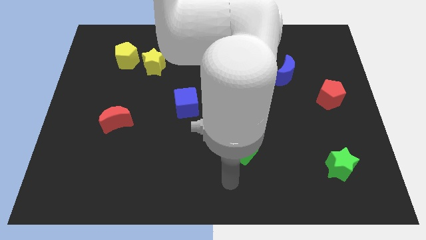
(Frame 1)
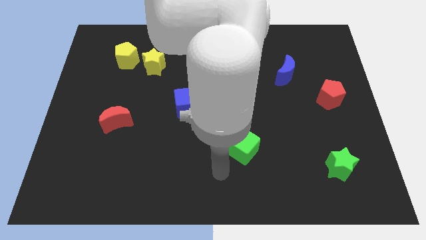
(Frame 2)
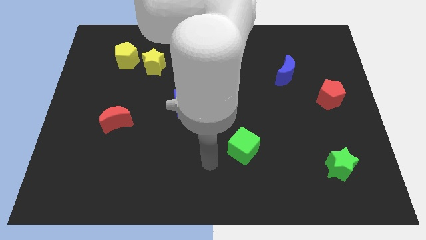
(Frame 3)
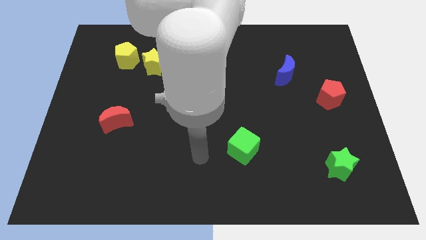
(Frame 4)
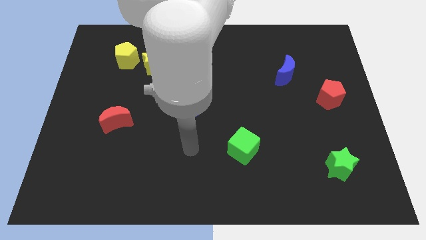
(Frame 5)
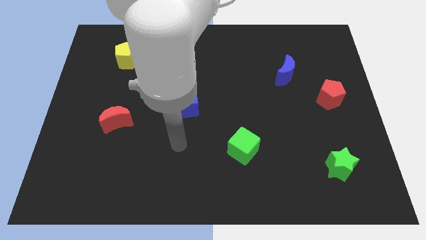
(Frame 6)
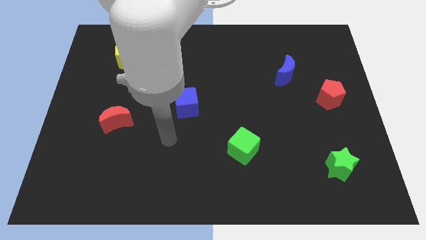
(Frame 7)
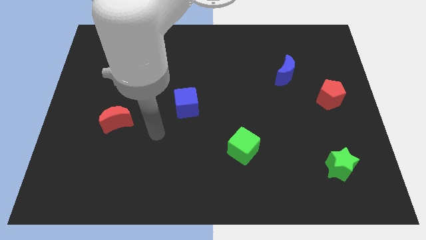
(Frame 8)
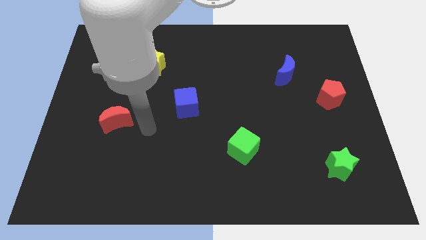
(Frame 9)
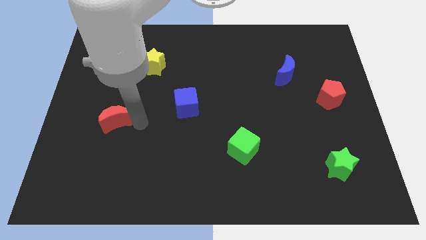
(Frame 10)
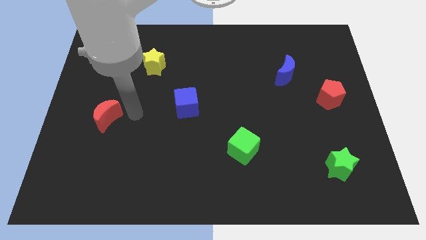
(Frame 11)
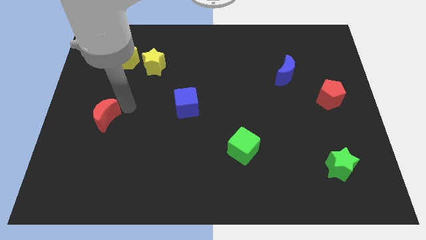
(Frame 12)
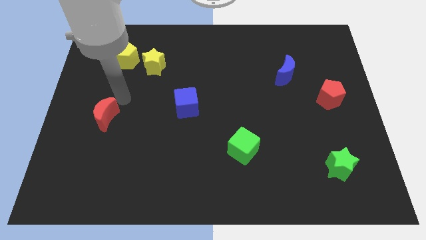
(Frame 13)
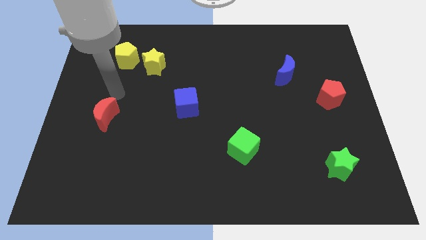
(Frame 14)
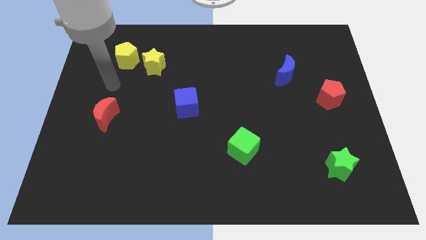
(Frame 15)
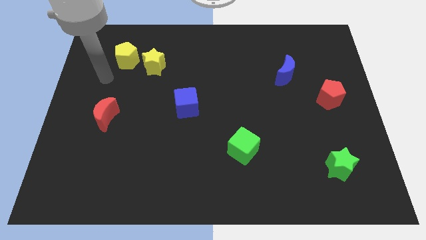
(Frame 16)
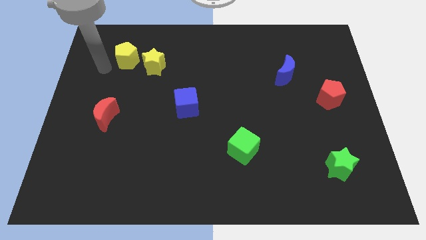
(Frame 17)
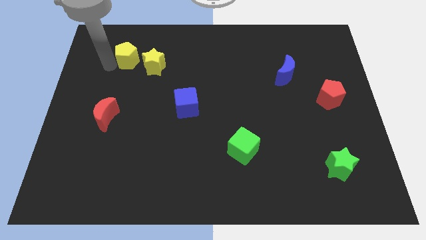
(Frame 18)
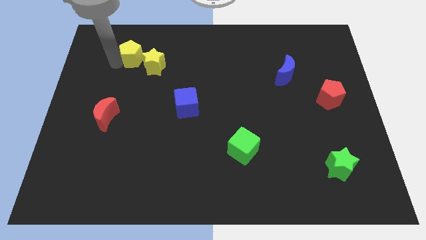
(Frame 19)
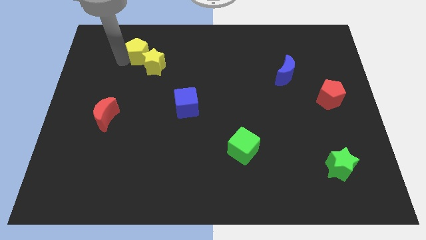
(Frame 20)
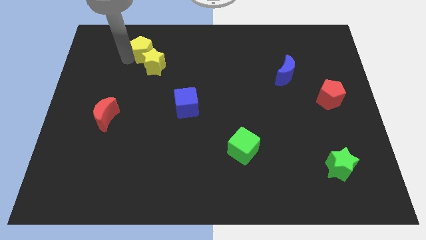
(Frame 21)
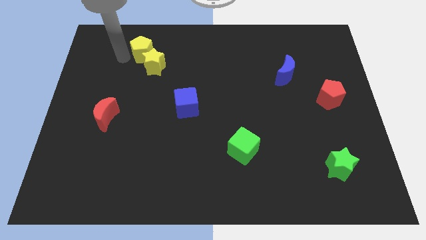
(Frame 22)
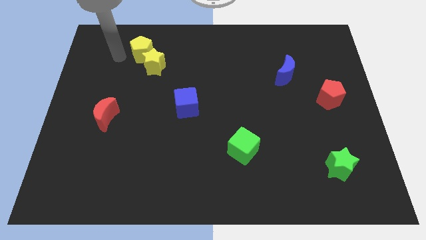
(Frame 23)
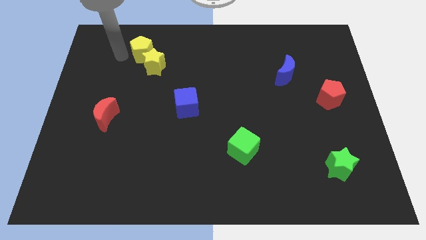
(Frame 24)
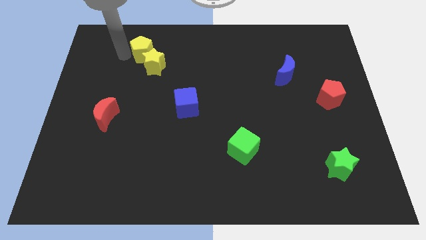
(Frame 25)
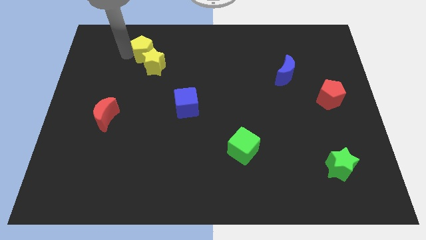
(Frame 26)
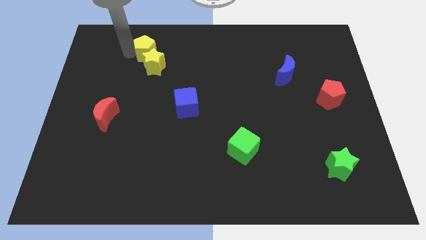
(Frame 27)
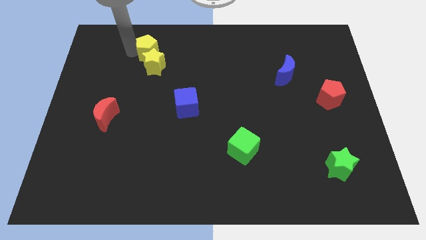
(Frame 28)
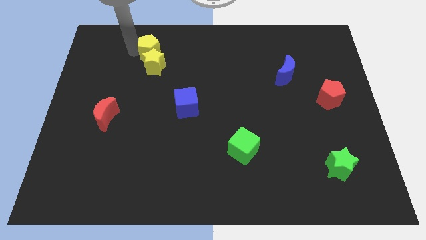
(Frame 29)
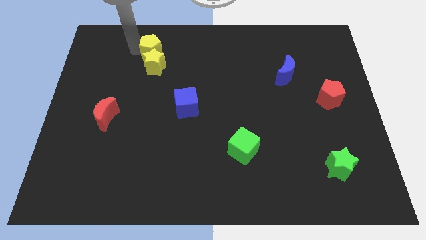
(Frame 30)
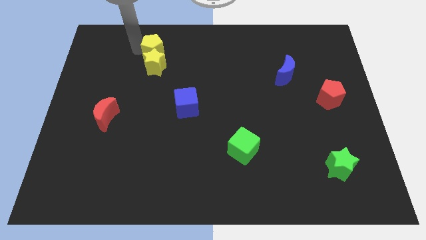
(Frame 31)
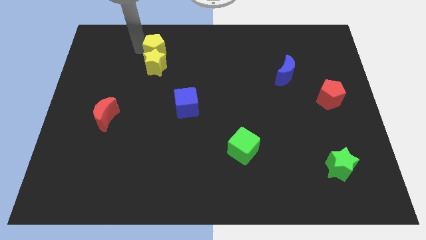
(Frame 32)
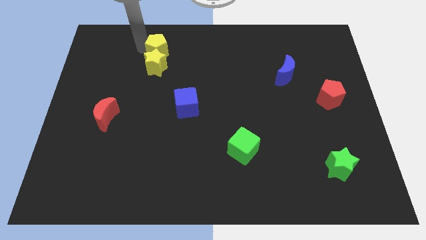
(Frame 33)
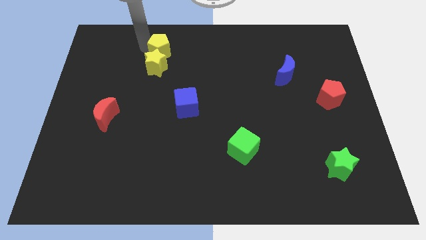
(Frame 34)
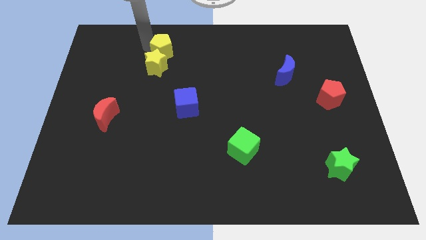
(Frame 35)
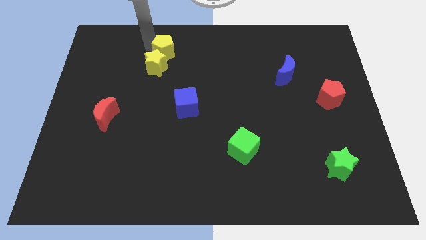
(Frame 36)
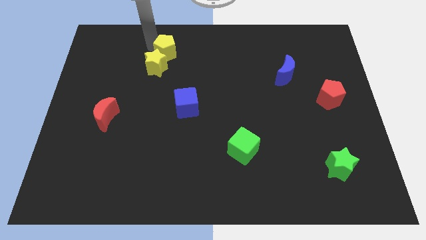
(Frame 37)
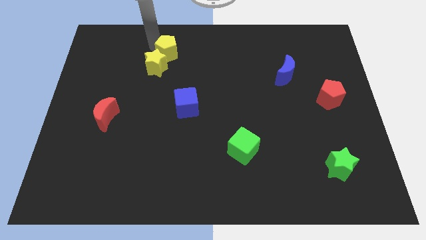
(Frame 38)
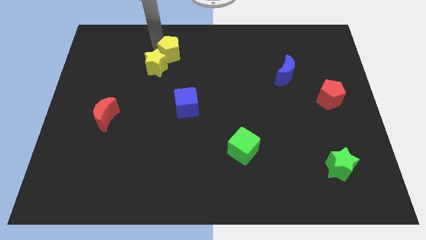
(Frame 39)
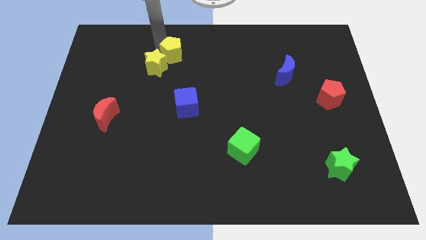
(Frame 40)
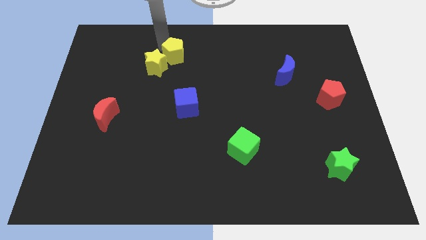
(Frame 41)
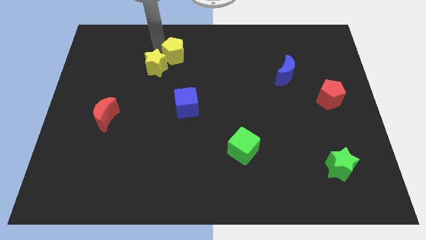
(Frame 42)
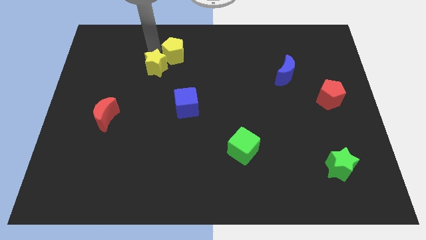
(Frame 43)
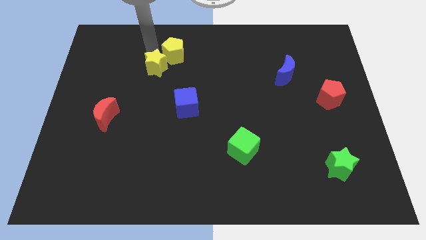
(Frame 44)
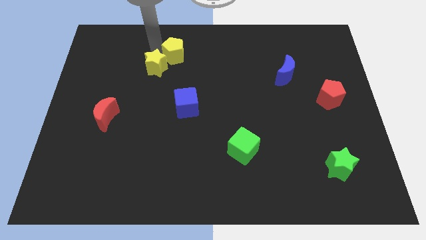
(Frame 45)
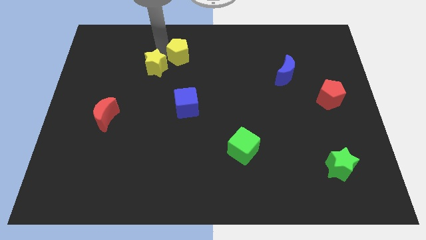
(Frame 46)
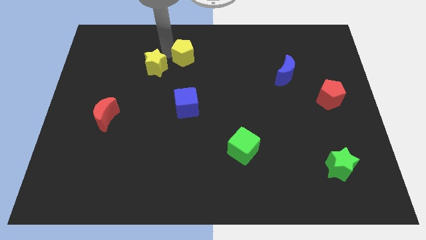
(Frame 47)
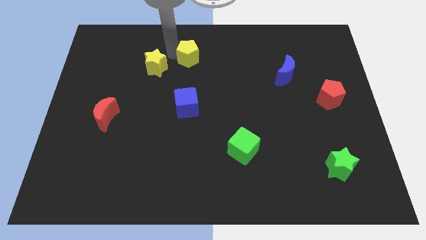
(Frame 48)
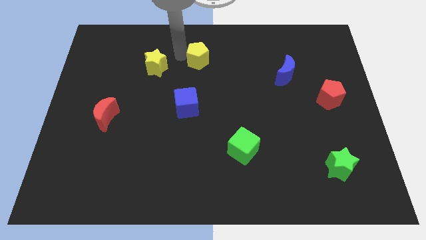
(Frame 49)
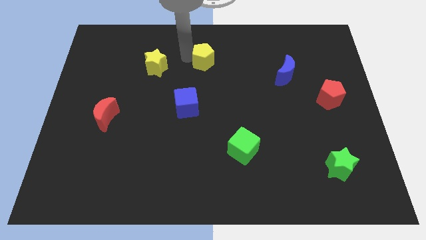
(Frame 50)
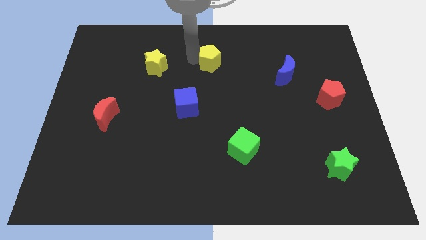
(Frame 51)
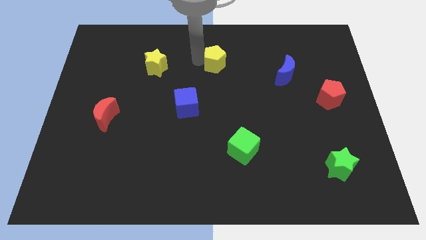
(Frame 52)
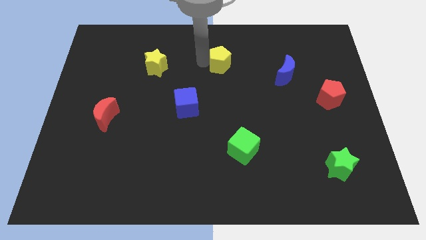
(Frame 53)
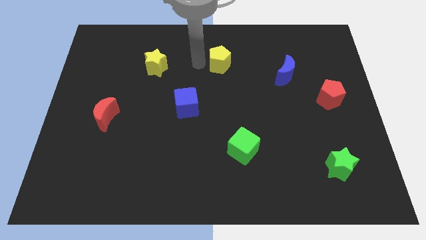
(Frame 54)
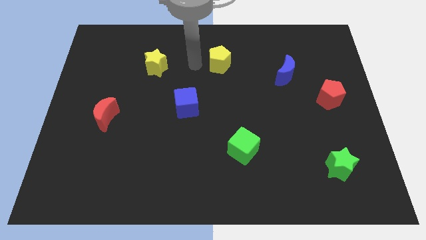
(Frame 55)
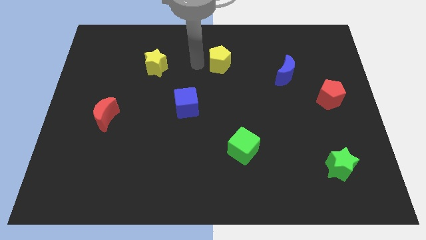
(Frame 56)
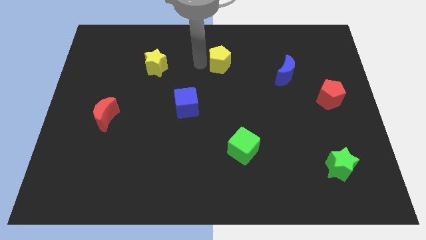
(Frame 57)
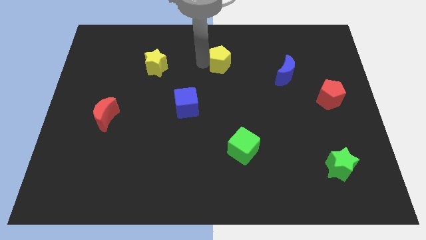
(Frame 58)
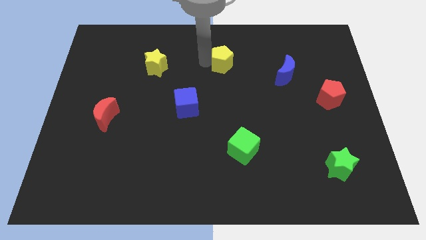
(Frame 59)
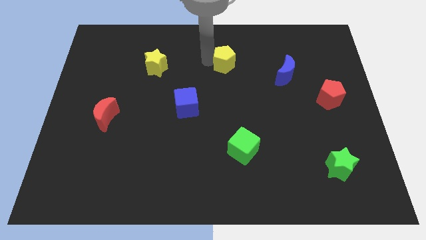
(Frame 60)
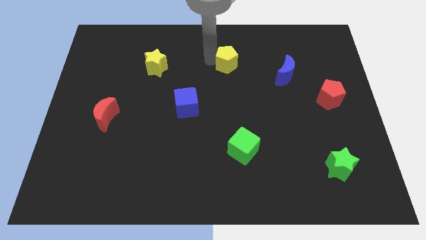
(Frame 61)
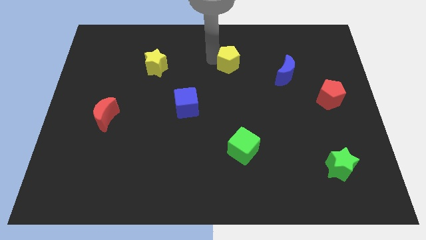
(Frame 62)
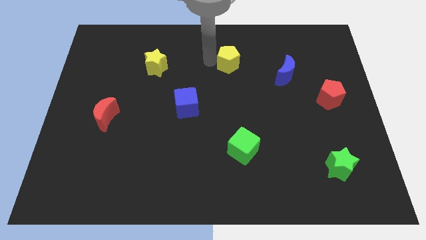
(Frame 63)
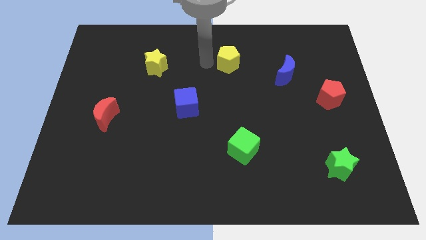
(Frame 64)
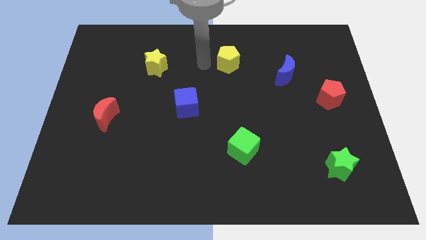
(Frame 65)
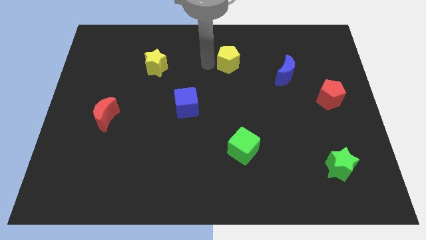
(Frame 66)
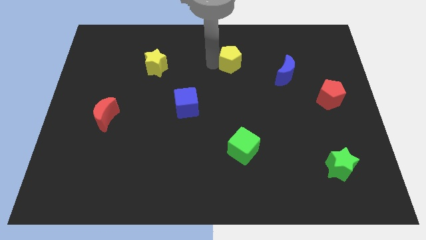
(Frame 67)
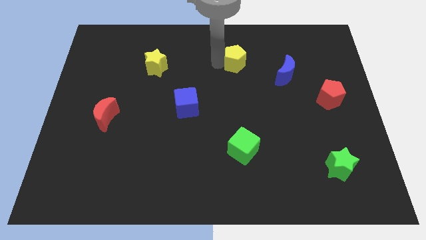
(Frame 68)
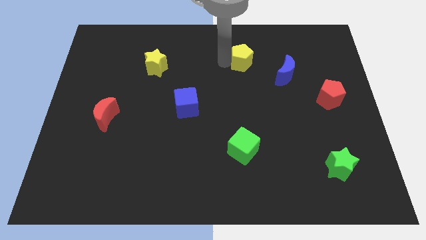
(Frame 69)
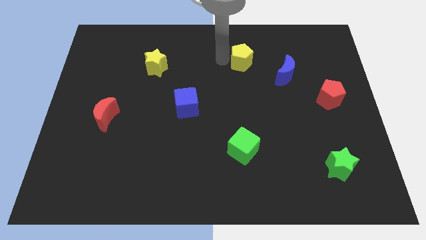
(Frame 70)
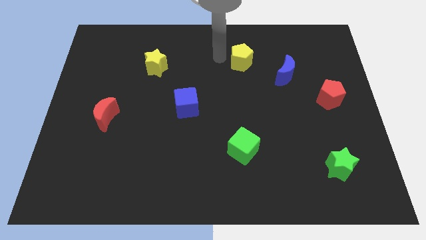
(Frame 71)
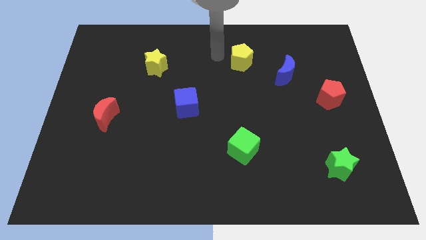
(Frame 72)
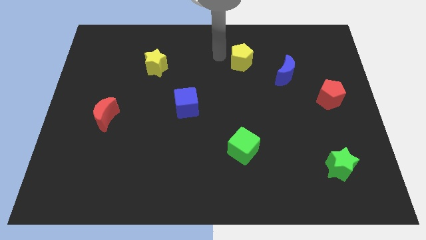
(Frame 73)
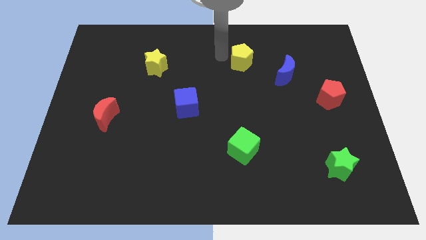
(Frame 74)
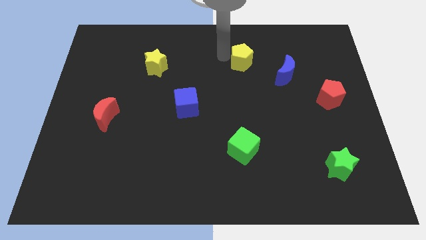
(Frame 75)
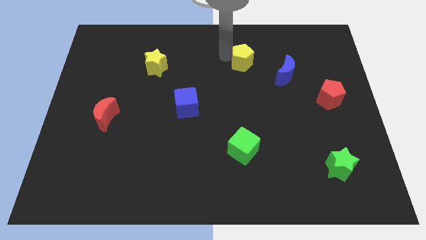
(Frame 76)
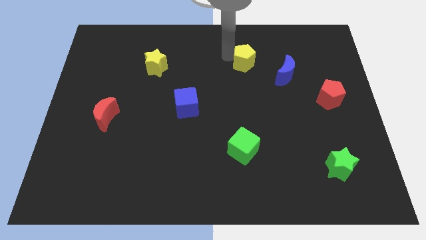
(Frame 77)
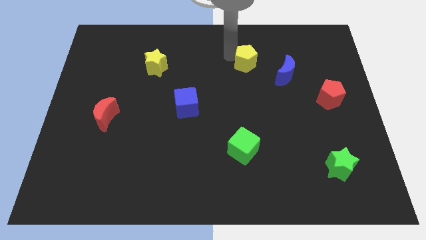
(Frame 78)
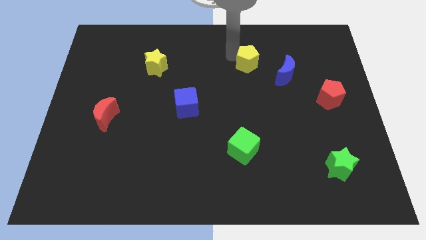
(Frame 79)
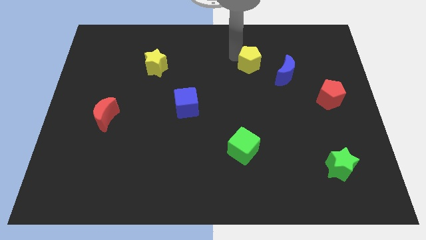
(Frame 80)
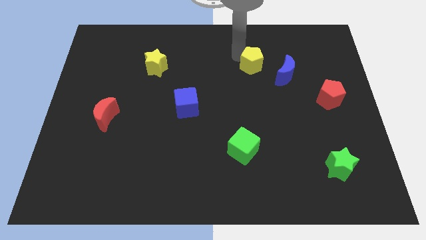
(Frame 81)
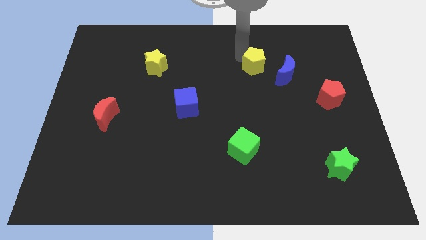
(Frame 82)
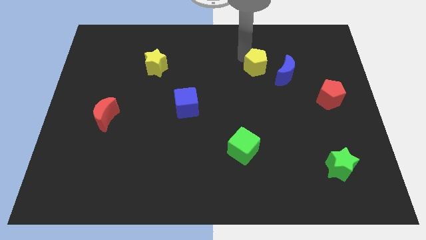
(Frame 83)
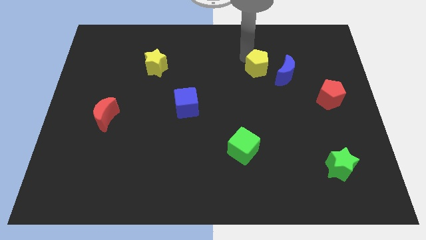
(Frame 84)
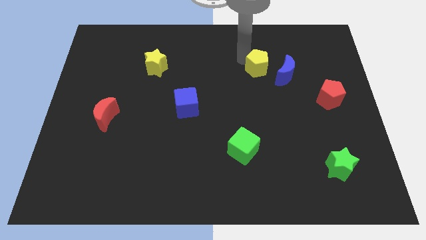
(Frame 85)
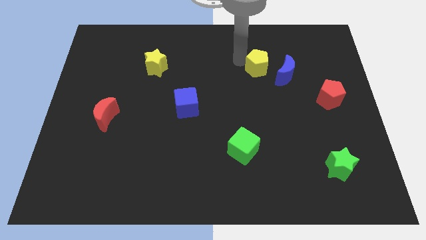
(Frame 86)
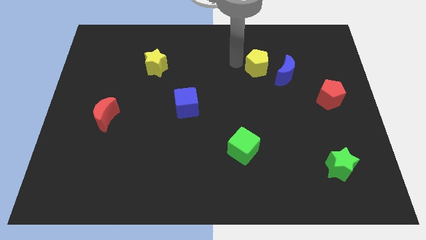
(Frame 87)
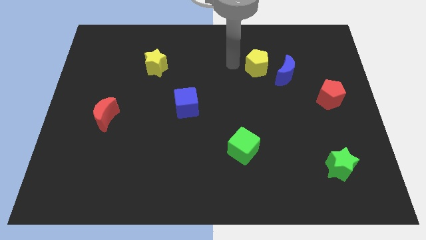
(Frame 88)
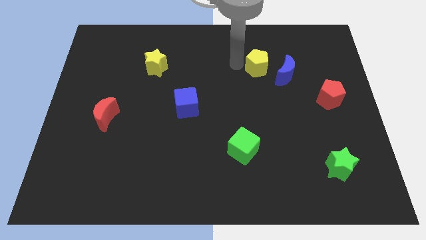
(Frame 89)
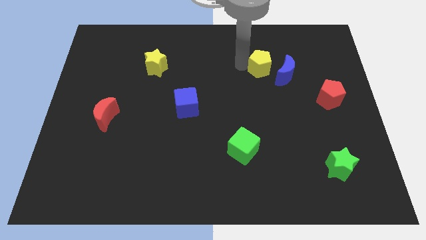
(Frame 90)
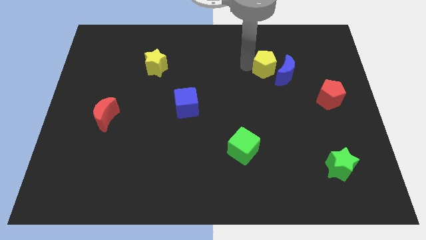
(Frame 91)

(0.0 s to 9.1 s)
move the yellow pentagon to the blue moon
